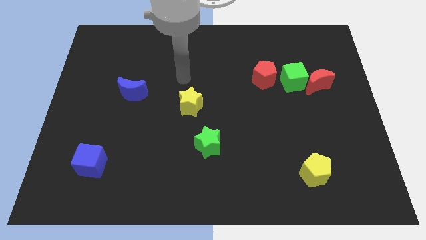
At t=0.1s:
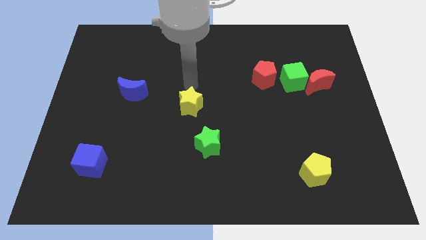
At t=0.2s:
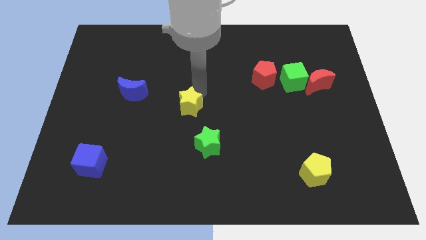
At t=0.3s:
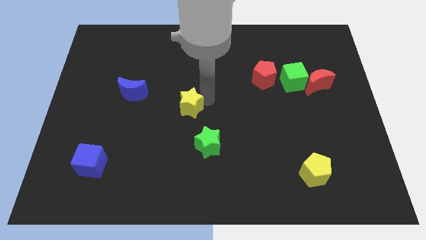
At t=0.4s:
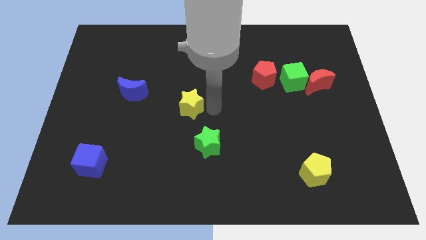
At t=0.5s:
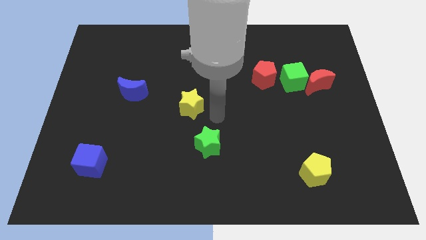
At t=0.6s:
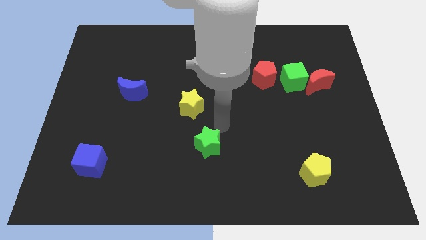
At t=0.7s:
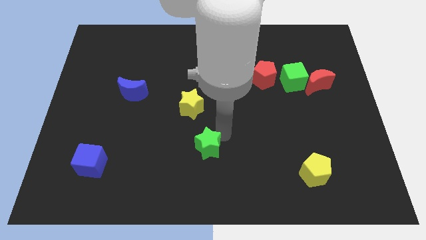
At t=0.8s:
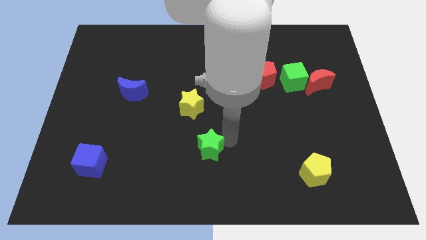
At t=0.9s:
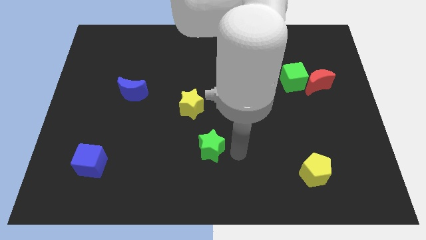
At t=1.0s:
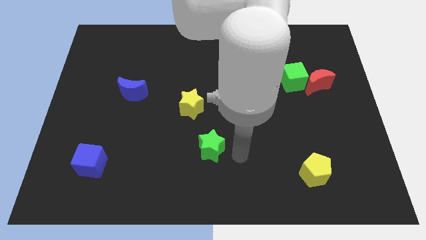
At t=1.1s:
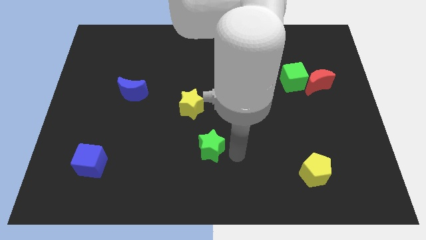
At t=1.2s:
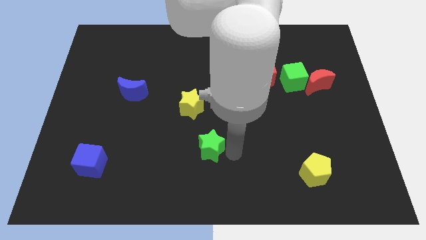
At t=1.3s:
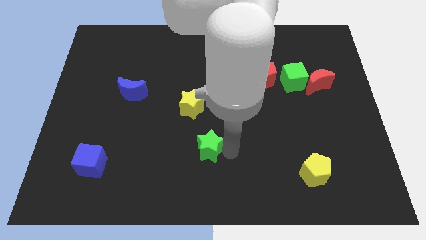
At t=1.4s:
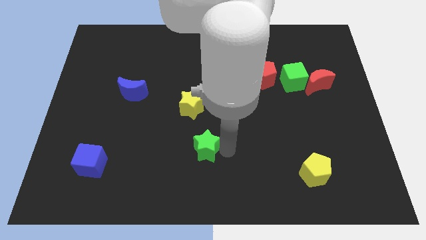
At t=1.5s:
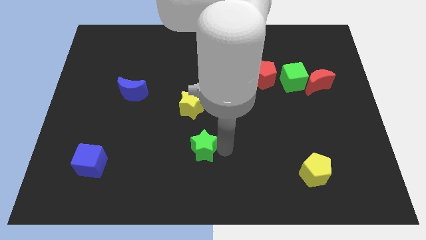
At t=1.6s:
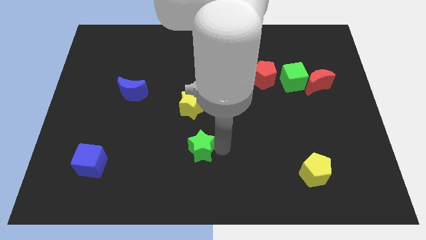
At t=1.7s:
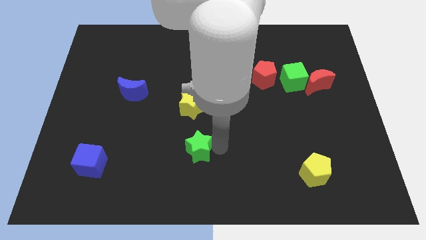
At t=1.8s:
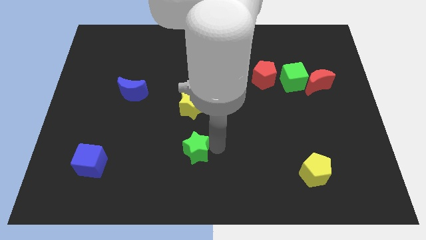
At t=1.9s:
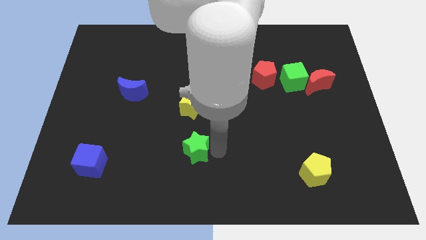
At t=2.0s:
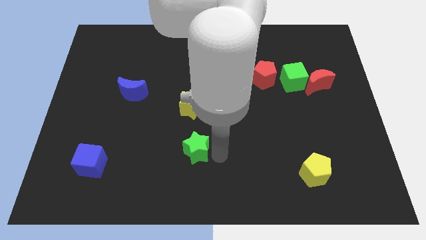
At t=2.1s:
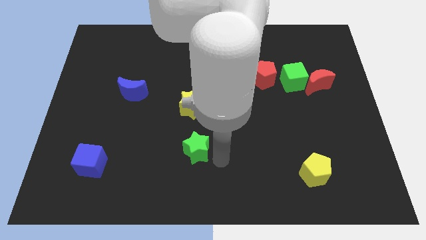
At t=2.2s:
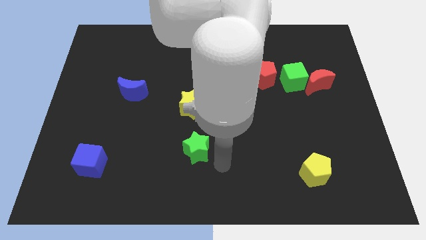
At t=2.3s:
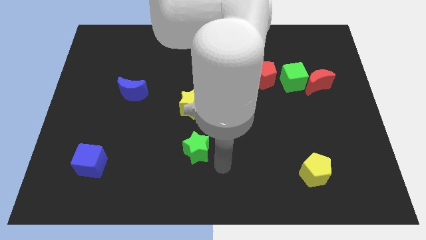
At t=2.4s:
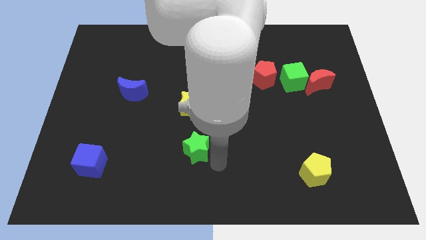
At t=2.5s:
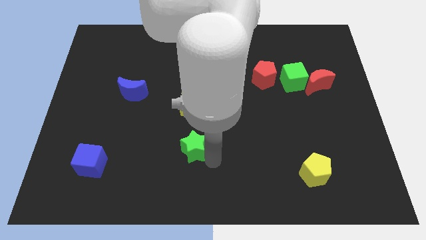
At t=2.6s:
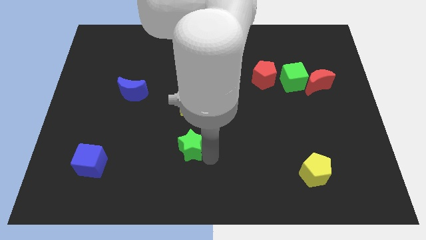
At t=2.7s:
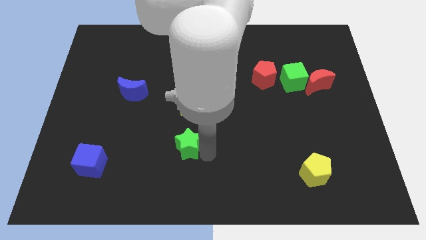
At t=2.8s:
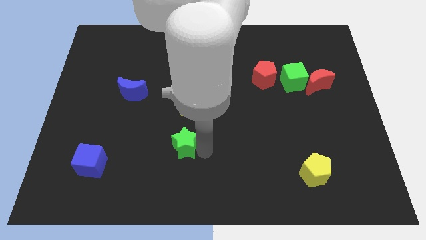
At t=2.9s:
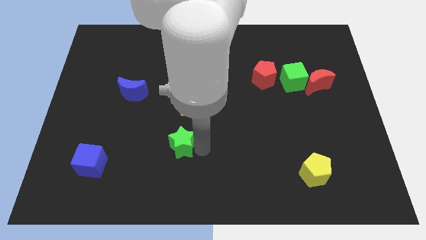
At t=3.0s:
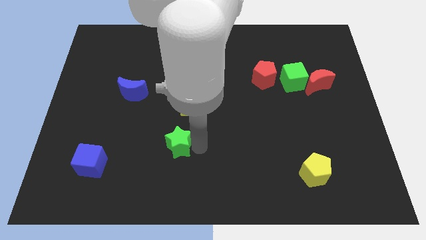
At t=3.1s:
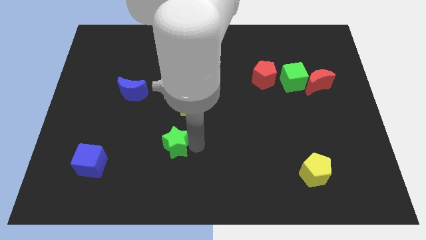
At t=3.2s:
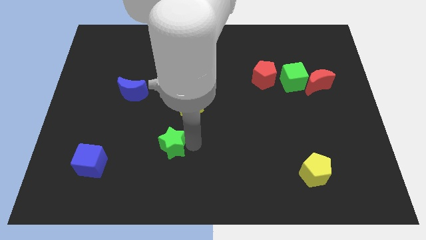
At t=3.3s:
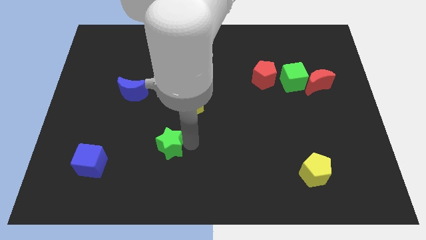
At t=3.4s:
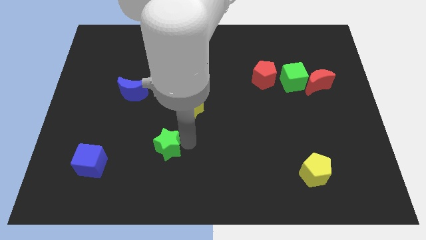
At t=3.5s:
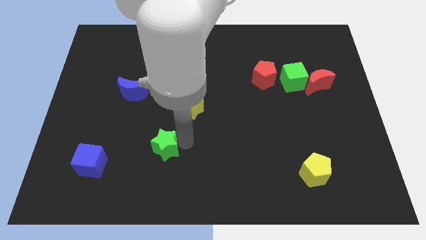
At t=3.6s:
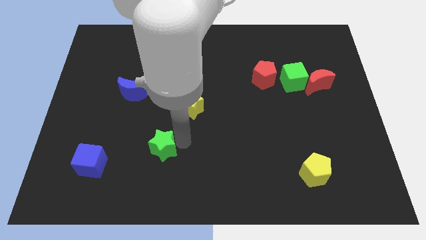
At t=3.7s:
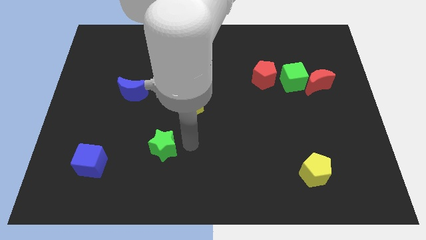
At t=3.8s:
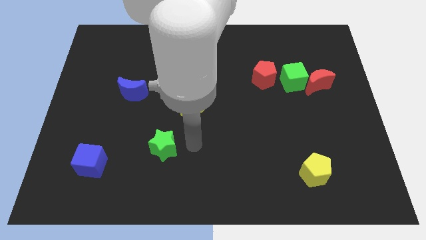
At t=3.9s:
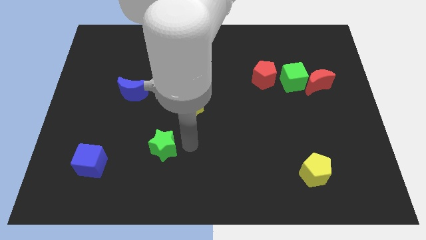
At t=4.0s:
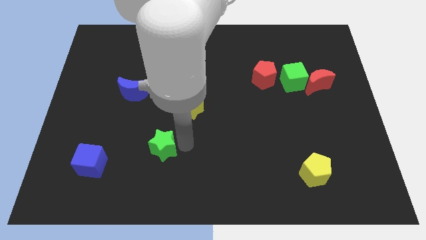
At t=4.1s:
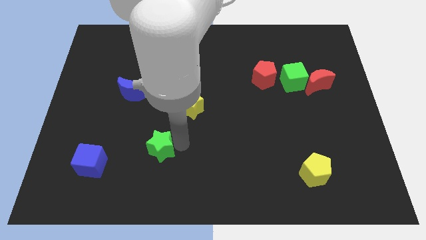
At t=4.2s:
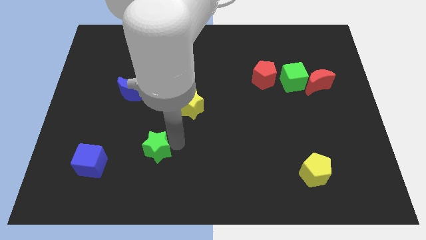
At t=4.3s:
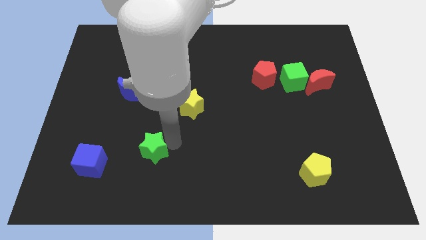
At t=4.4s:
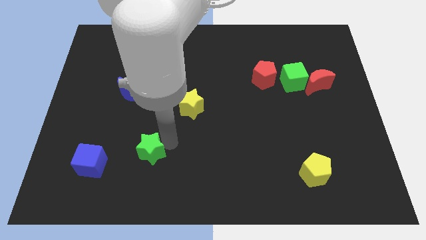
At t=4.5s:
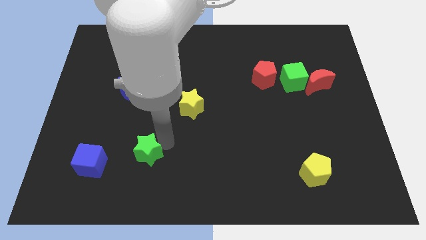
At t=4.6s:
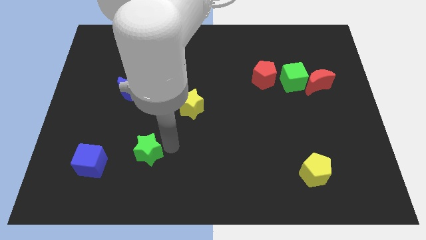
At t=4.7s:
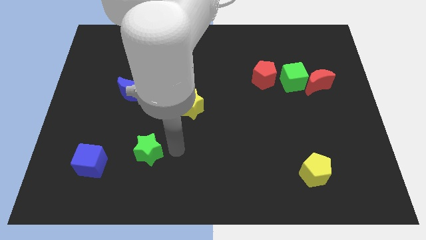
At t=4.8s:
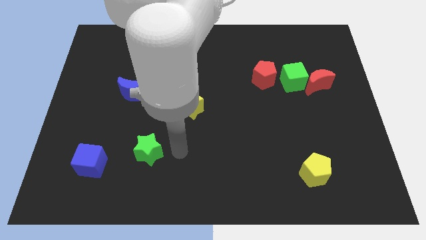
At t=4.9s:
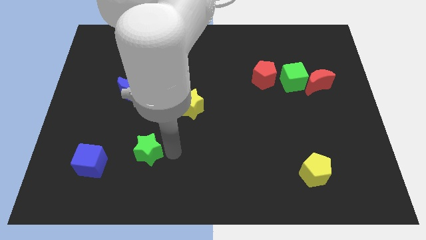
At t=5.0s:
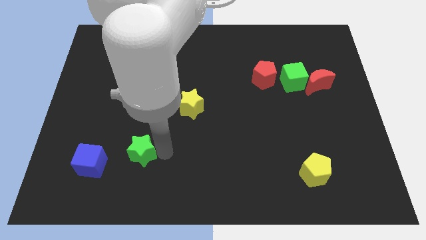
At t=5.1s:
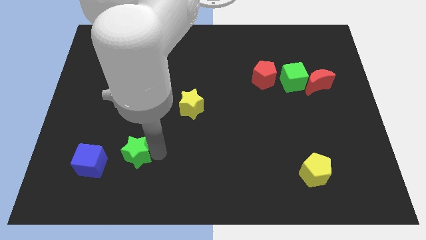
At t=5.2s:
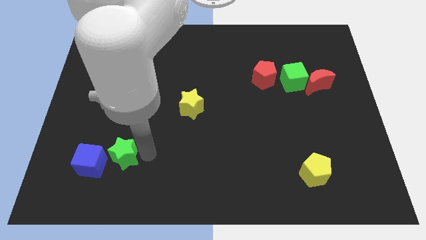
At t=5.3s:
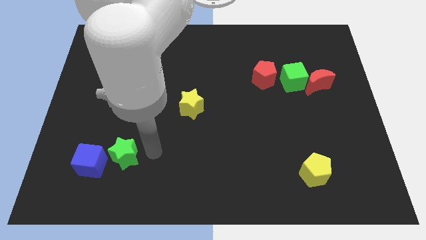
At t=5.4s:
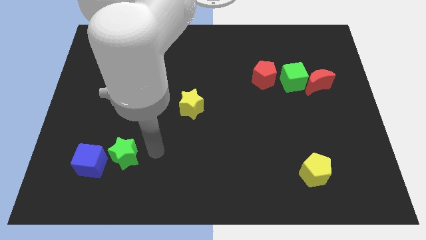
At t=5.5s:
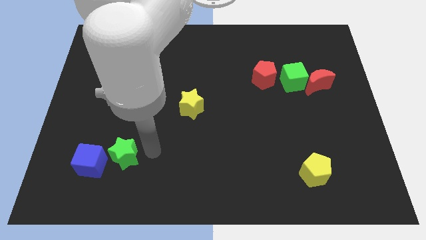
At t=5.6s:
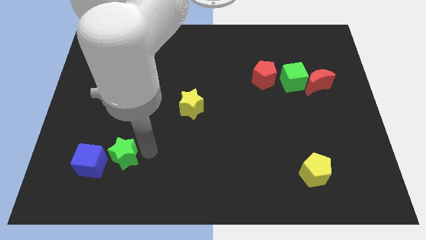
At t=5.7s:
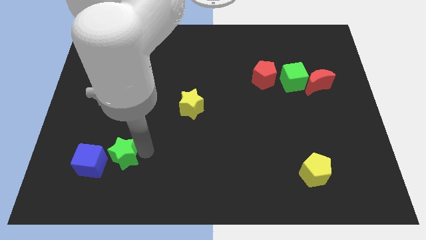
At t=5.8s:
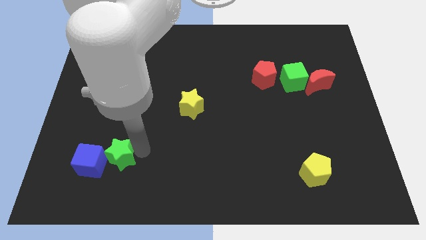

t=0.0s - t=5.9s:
move the green star to the blue cube

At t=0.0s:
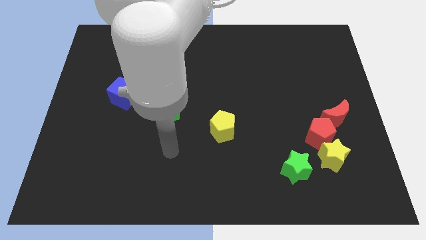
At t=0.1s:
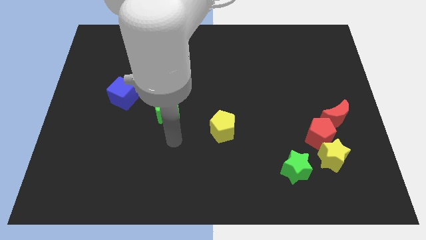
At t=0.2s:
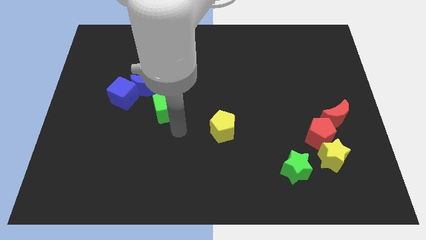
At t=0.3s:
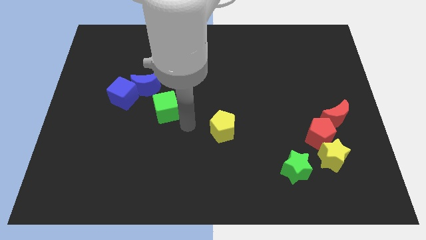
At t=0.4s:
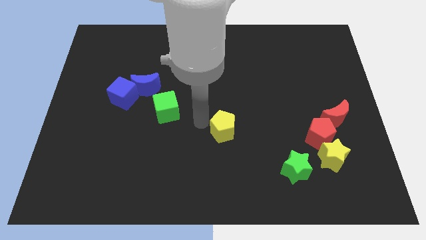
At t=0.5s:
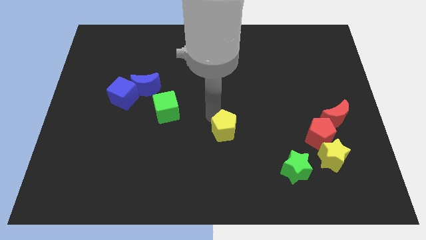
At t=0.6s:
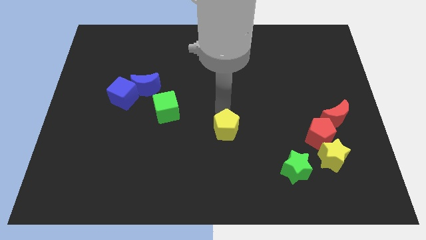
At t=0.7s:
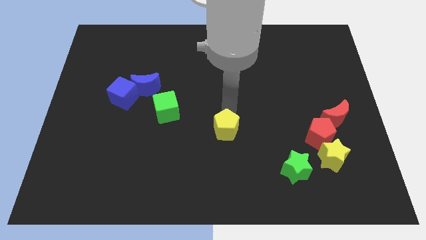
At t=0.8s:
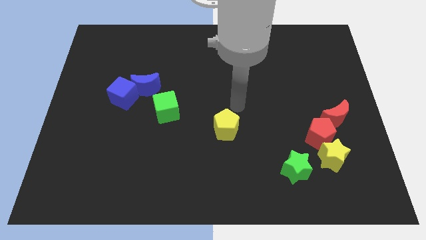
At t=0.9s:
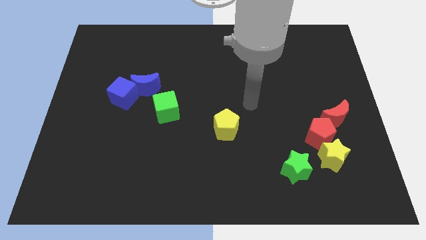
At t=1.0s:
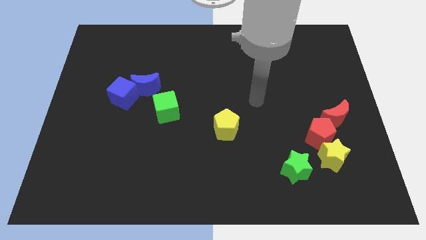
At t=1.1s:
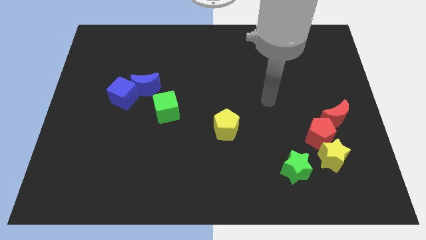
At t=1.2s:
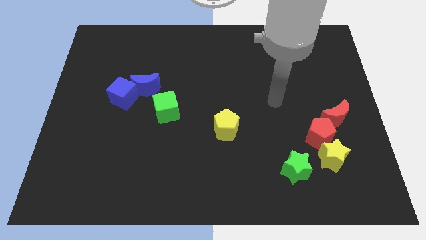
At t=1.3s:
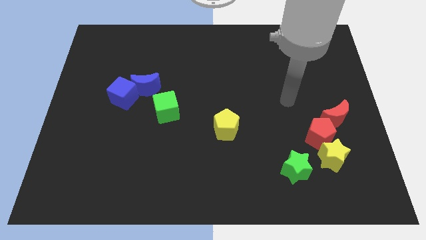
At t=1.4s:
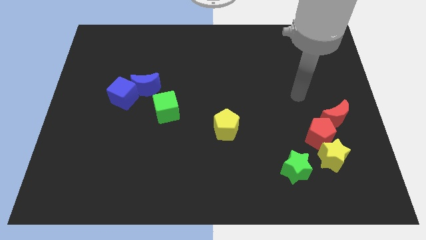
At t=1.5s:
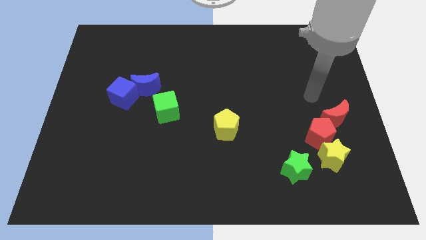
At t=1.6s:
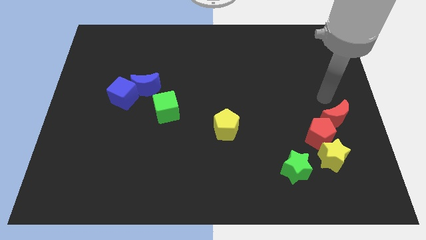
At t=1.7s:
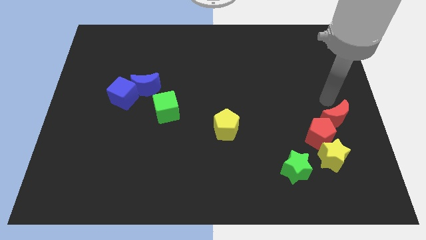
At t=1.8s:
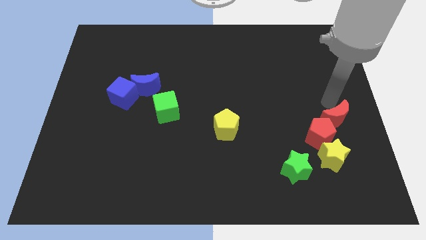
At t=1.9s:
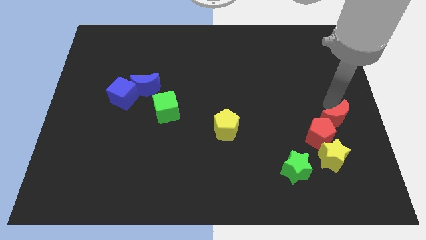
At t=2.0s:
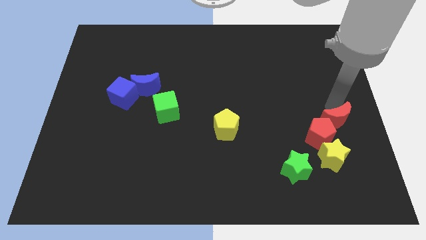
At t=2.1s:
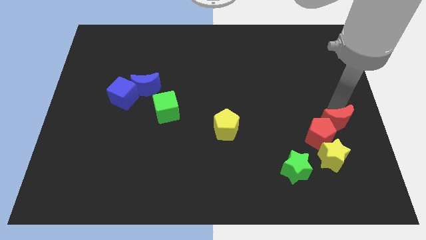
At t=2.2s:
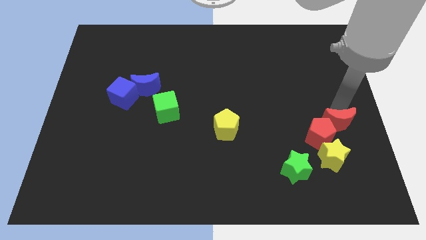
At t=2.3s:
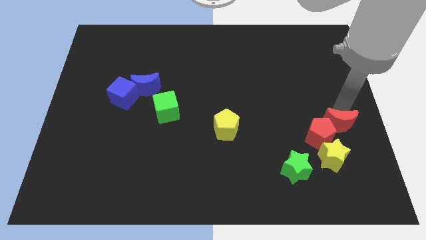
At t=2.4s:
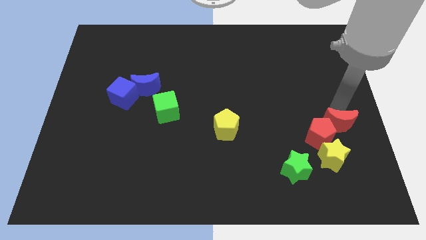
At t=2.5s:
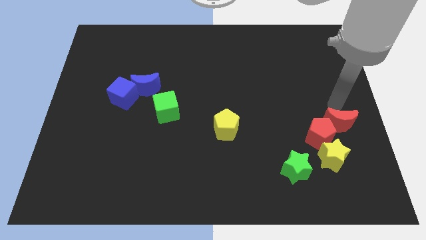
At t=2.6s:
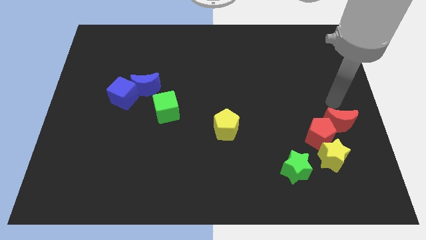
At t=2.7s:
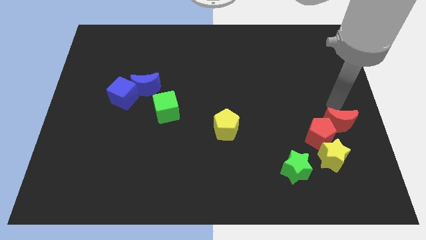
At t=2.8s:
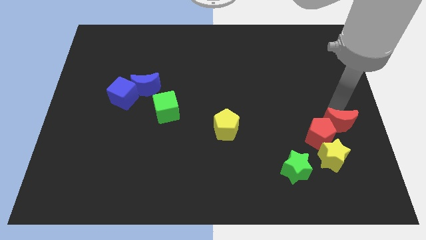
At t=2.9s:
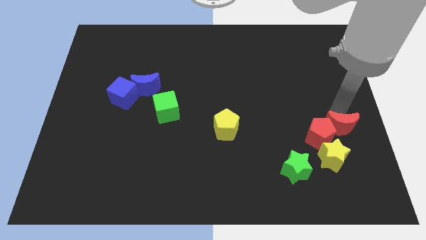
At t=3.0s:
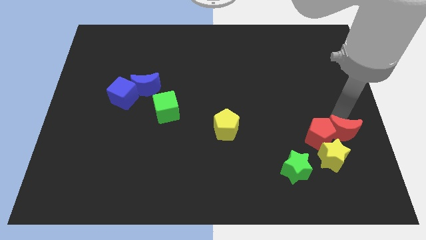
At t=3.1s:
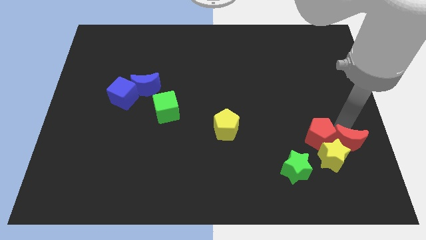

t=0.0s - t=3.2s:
put the red moon close to the yellow star
